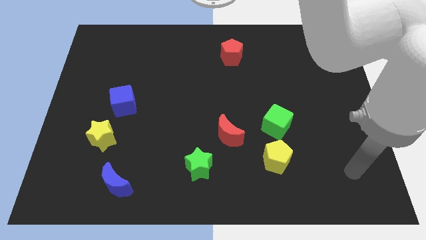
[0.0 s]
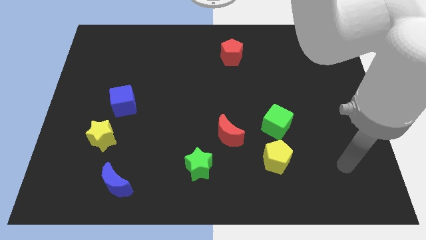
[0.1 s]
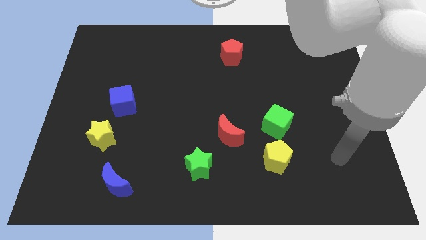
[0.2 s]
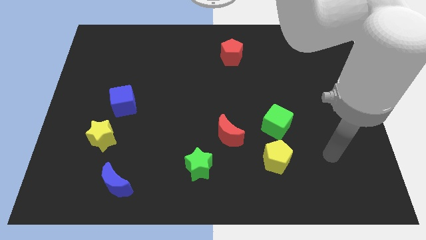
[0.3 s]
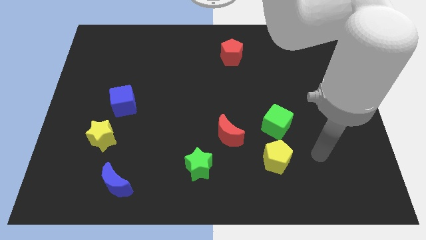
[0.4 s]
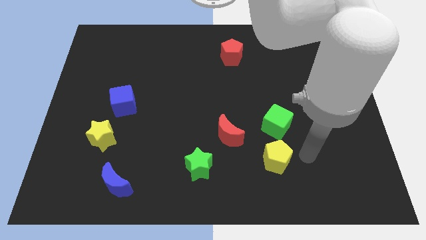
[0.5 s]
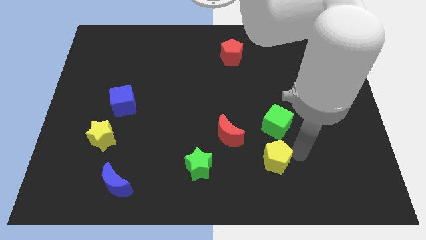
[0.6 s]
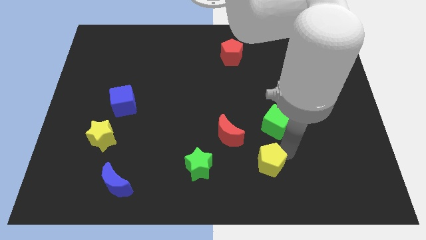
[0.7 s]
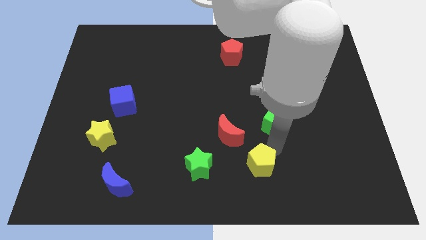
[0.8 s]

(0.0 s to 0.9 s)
pull the green cube apart from the yellow pentagon

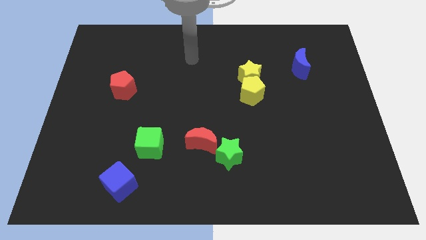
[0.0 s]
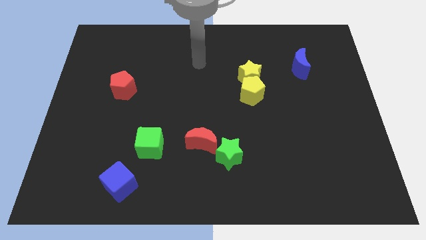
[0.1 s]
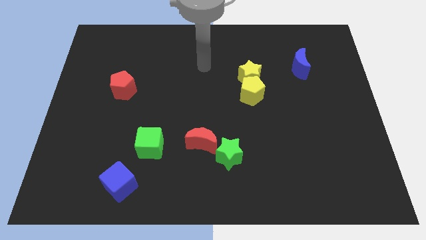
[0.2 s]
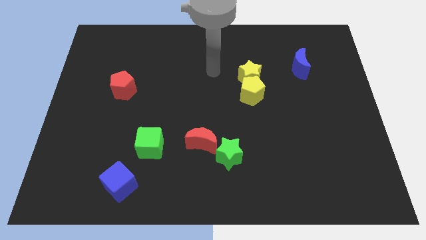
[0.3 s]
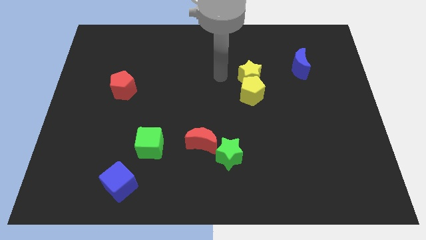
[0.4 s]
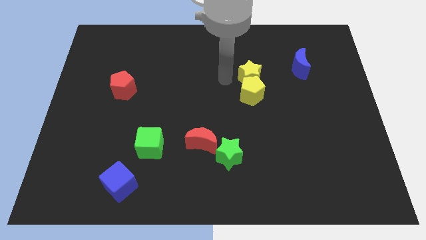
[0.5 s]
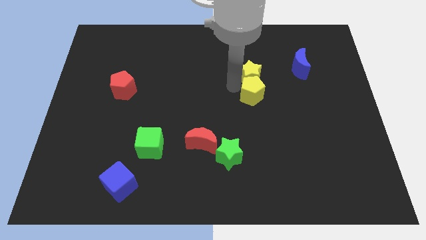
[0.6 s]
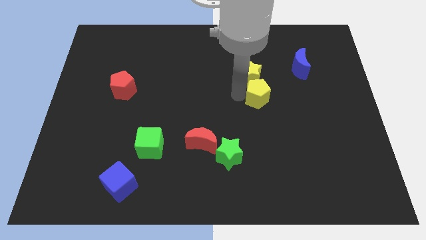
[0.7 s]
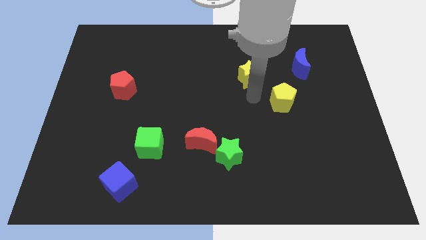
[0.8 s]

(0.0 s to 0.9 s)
move the yellow star away from the yellow pentagon

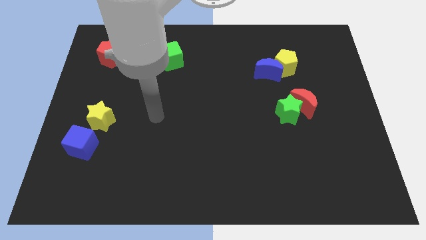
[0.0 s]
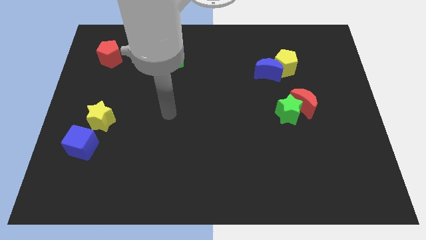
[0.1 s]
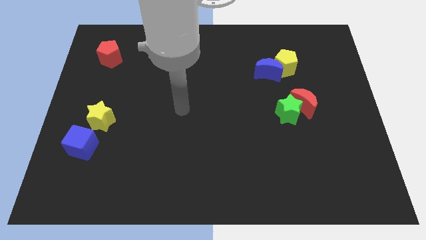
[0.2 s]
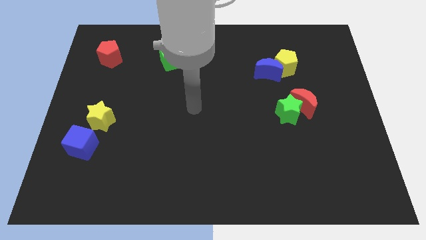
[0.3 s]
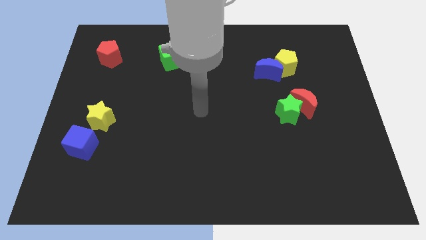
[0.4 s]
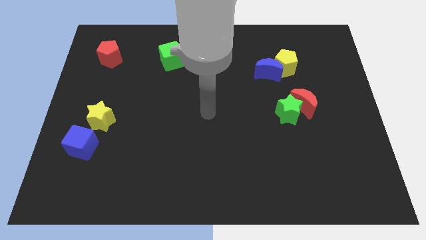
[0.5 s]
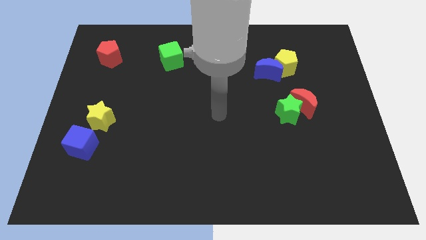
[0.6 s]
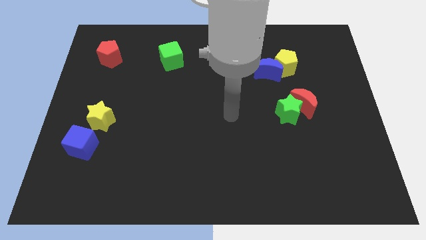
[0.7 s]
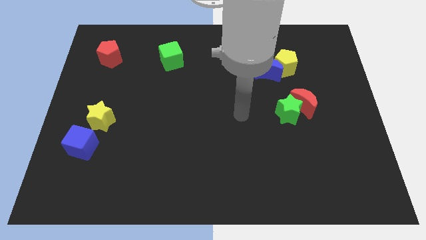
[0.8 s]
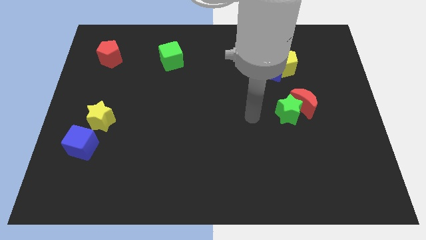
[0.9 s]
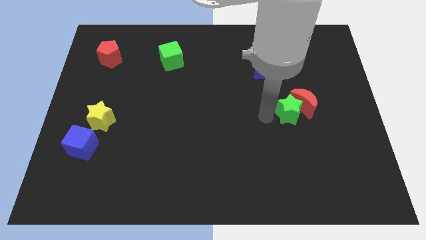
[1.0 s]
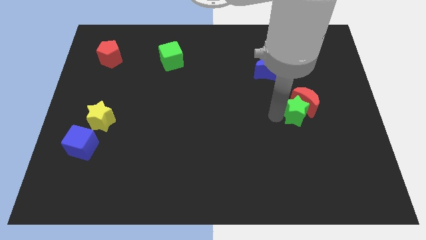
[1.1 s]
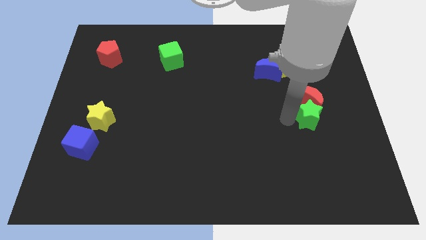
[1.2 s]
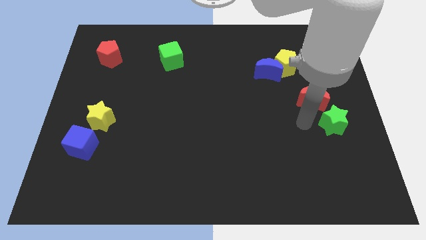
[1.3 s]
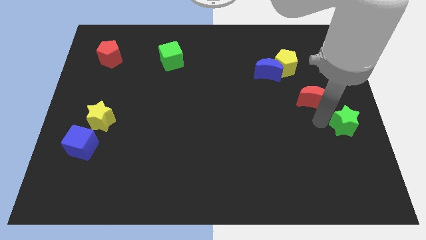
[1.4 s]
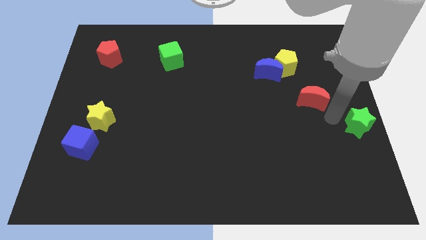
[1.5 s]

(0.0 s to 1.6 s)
pull the red moon apart from the green star

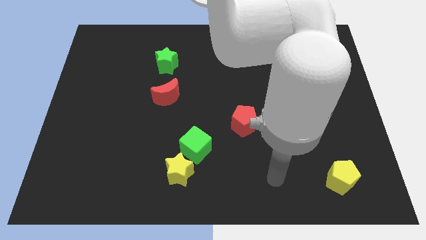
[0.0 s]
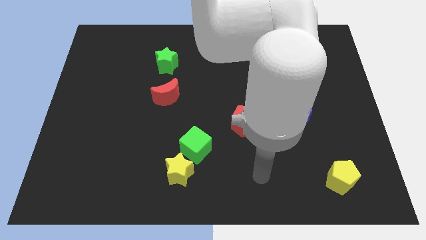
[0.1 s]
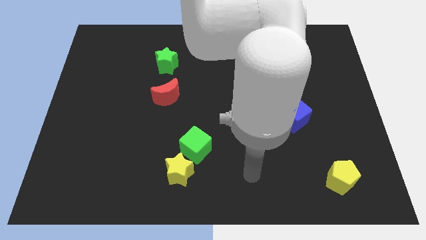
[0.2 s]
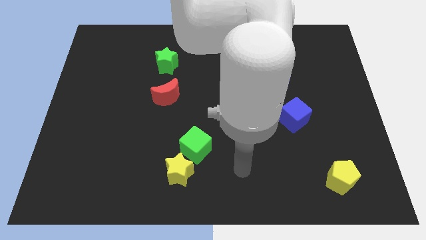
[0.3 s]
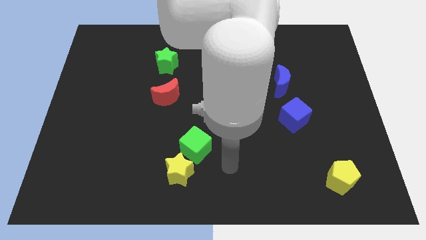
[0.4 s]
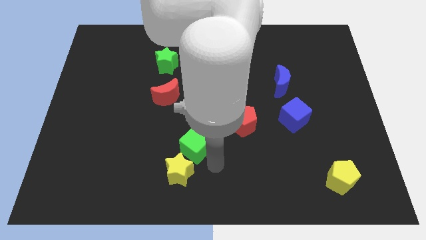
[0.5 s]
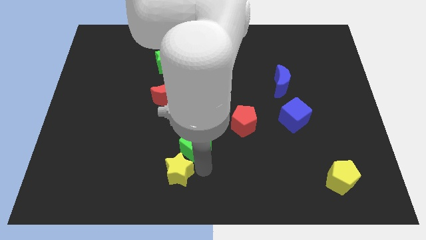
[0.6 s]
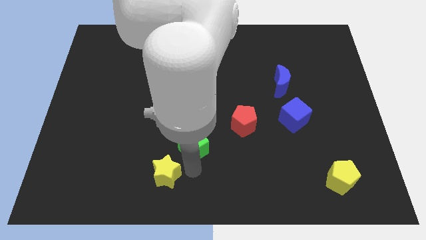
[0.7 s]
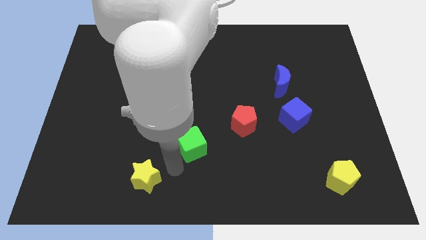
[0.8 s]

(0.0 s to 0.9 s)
move the green cube away from the yellow star

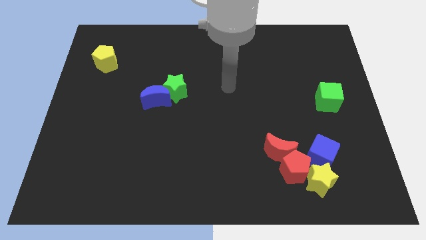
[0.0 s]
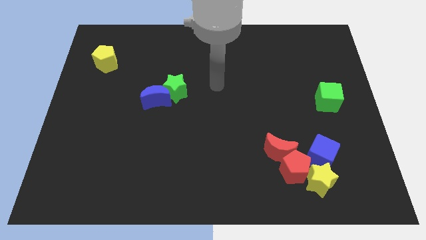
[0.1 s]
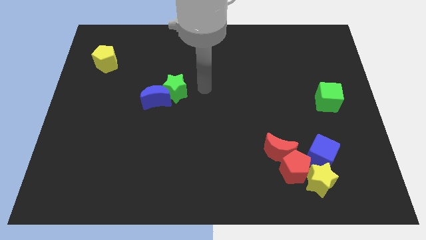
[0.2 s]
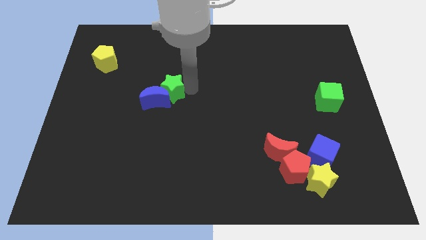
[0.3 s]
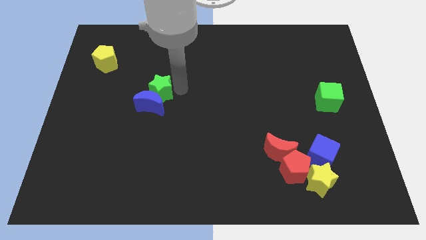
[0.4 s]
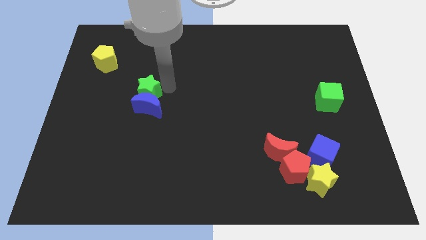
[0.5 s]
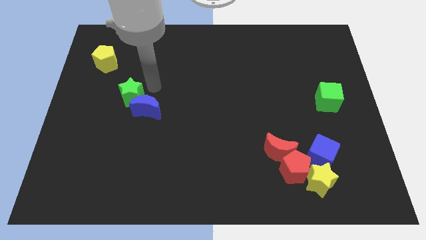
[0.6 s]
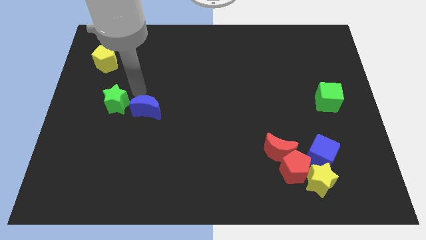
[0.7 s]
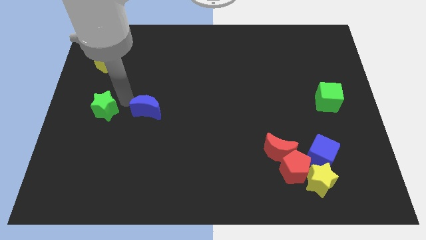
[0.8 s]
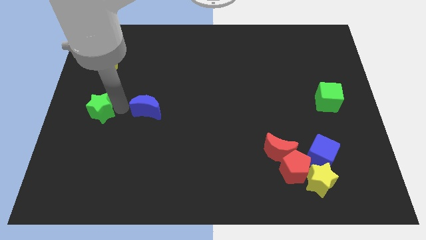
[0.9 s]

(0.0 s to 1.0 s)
separate the blue moon from the green star

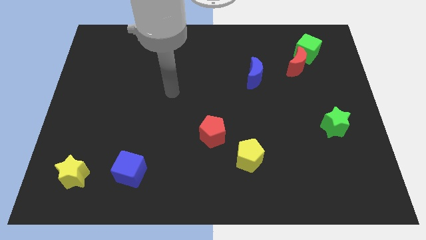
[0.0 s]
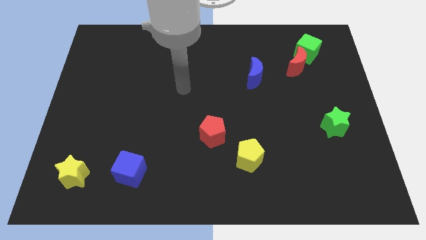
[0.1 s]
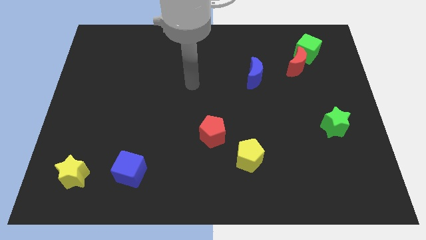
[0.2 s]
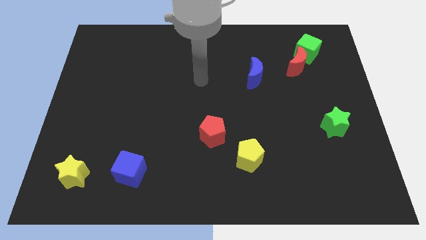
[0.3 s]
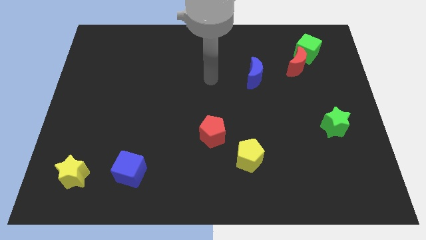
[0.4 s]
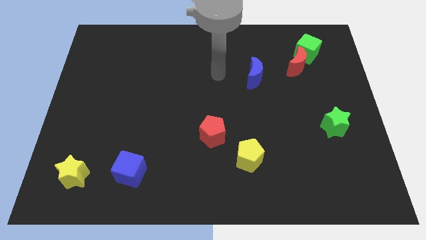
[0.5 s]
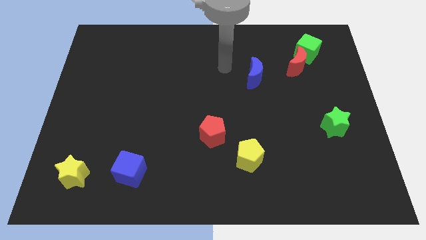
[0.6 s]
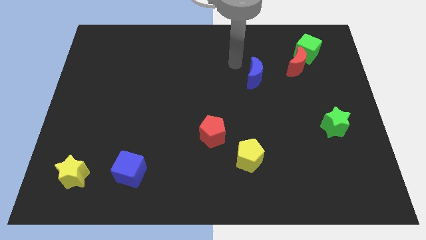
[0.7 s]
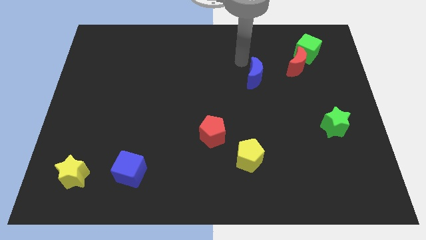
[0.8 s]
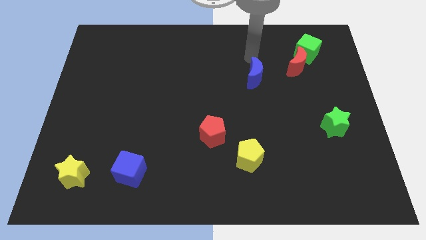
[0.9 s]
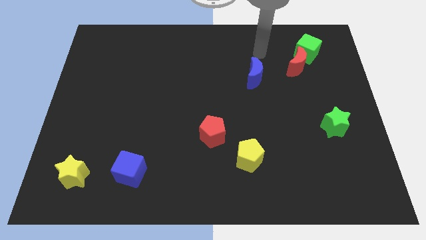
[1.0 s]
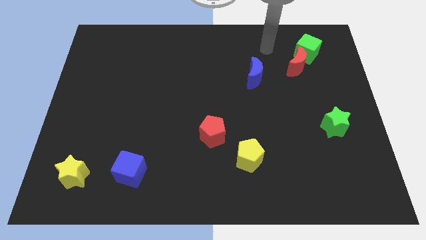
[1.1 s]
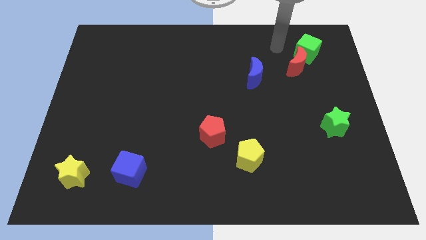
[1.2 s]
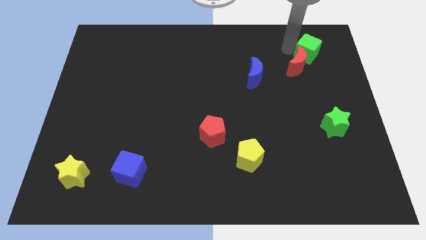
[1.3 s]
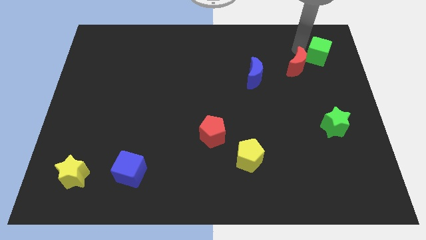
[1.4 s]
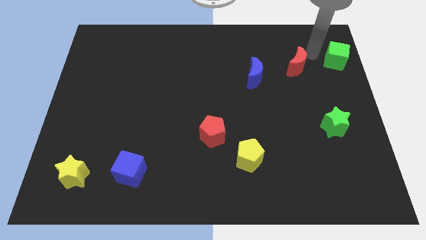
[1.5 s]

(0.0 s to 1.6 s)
pull the red moon apart from the green cube

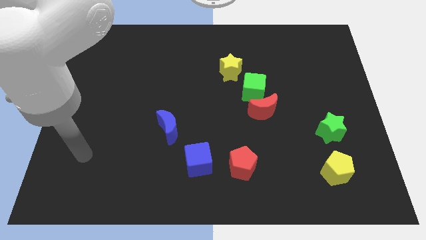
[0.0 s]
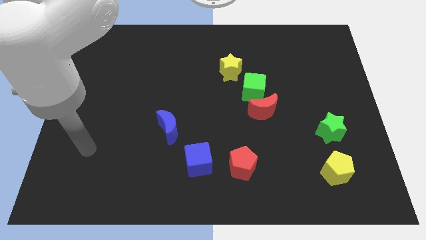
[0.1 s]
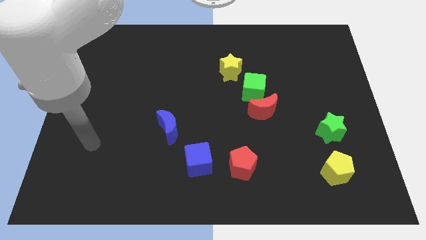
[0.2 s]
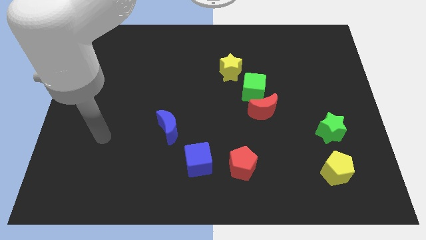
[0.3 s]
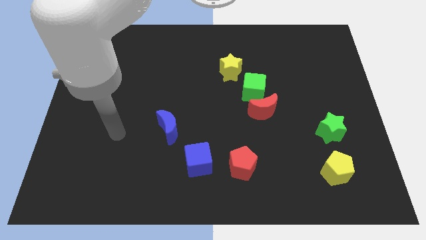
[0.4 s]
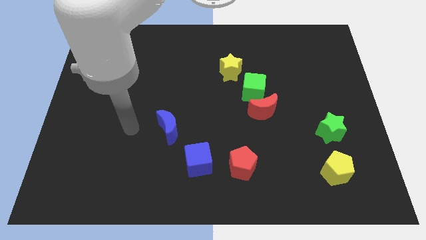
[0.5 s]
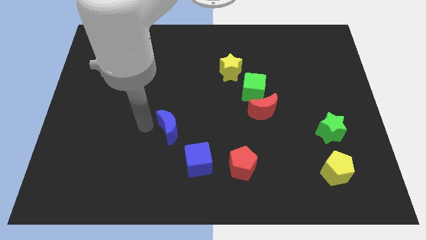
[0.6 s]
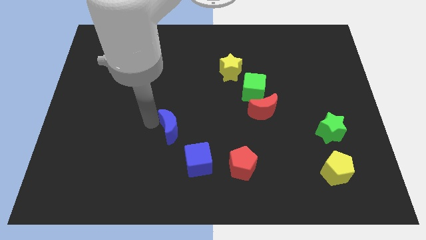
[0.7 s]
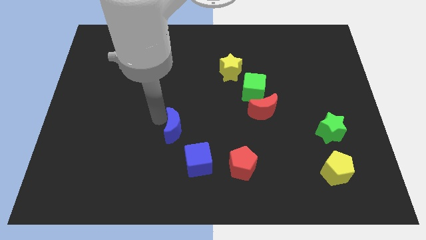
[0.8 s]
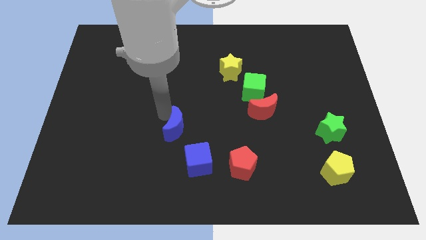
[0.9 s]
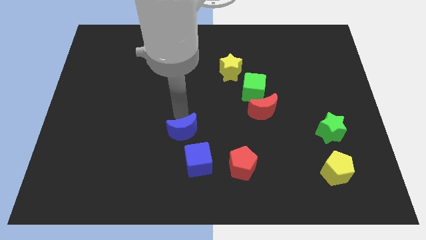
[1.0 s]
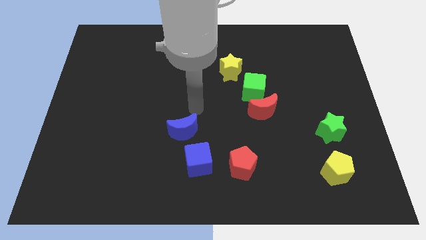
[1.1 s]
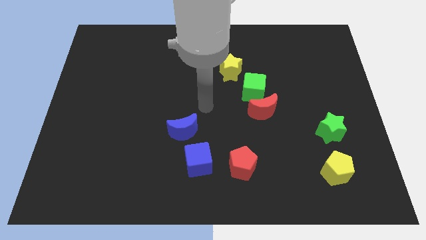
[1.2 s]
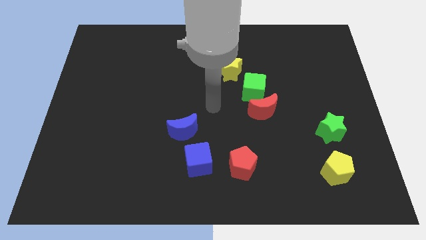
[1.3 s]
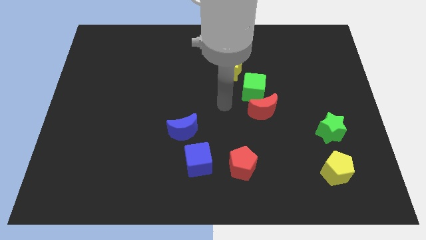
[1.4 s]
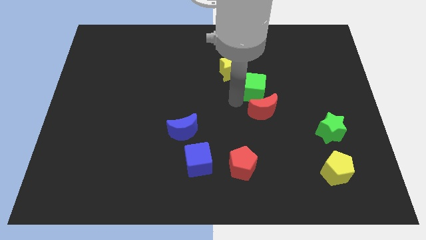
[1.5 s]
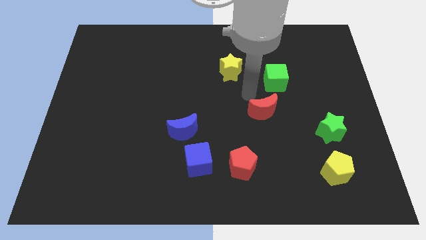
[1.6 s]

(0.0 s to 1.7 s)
move the red moon away from the green cube

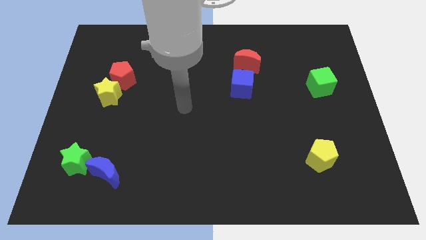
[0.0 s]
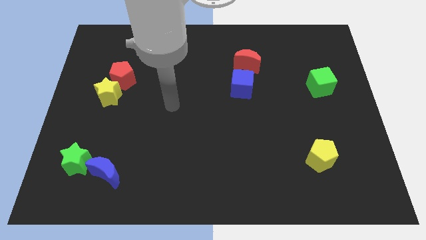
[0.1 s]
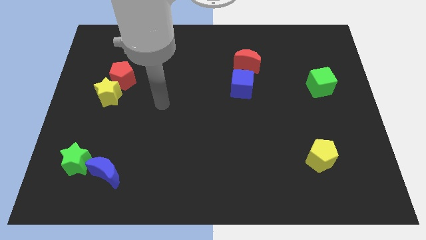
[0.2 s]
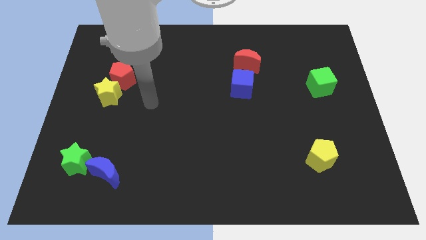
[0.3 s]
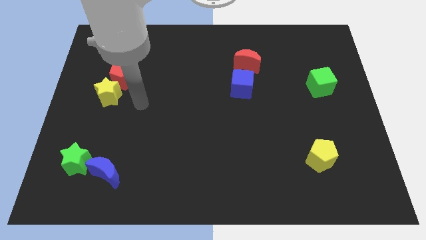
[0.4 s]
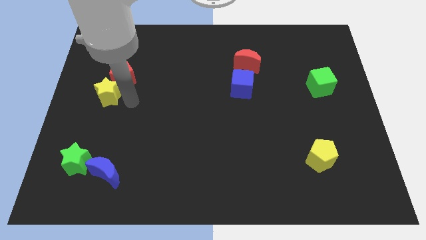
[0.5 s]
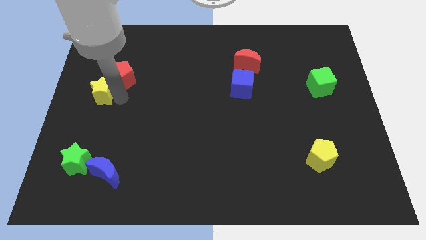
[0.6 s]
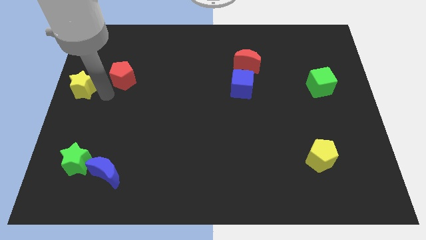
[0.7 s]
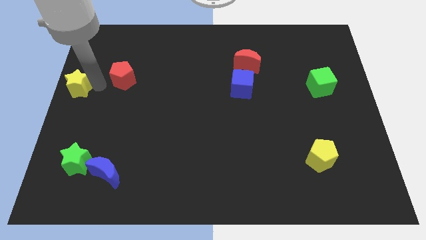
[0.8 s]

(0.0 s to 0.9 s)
pull the red pentagon apart from the yellow star
